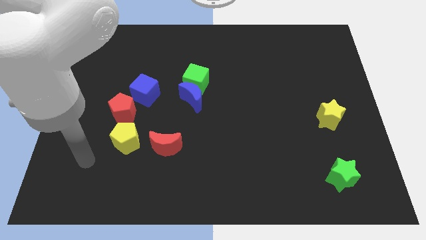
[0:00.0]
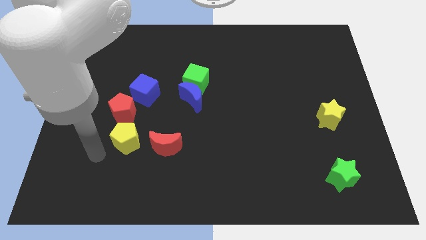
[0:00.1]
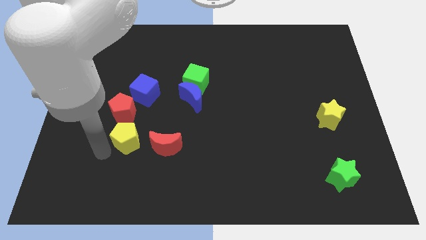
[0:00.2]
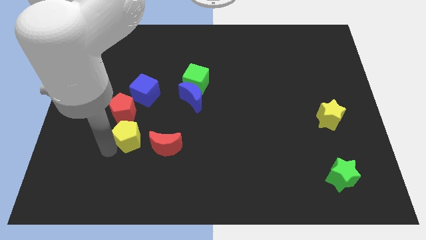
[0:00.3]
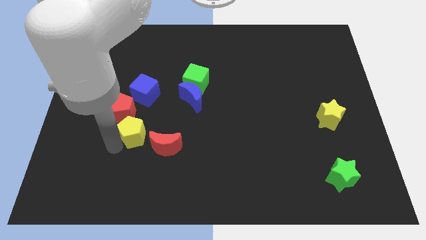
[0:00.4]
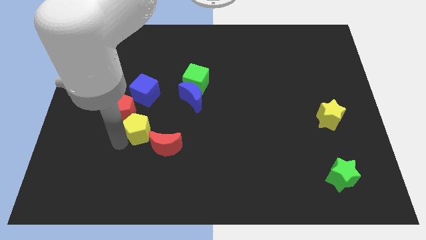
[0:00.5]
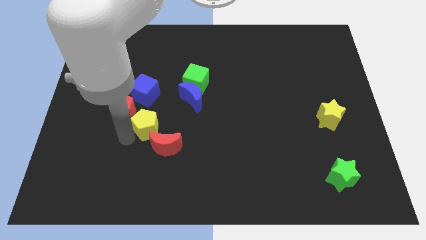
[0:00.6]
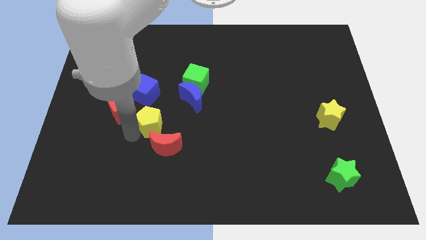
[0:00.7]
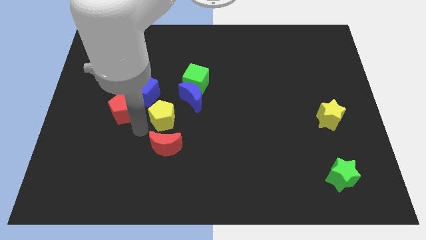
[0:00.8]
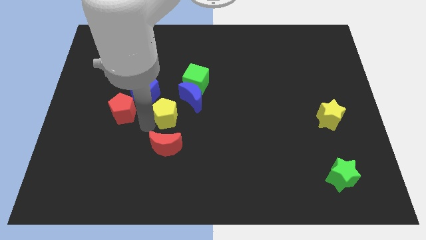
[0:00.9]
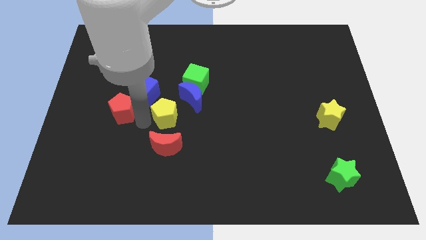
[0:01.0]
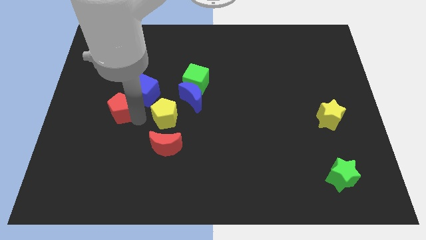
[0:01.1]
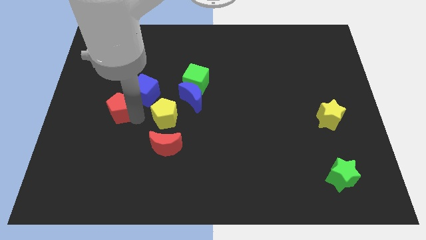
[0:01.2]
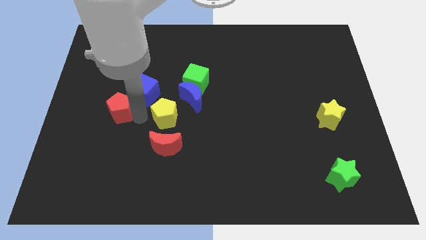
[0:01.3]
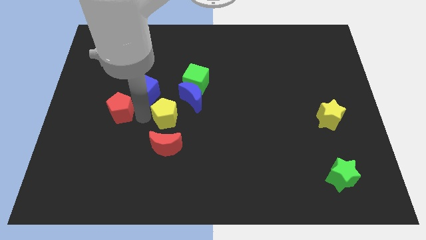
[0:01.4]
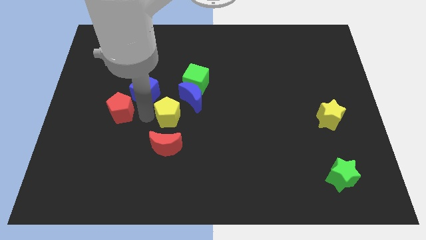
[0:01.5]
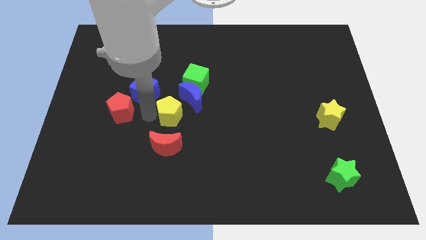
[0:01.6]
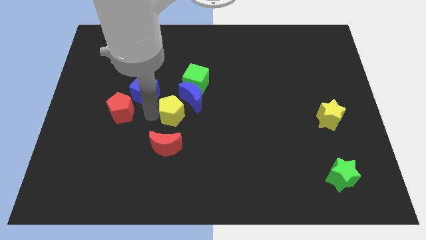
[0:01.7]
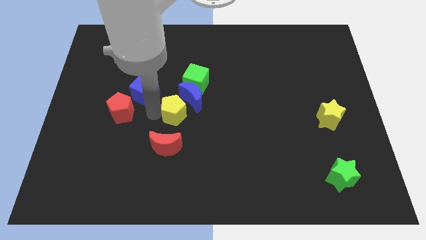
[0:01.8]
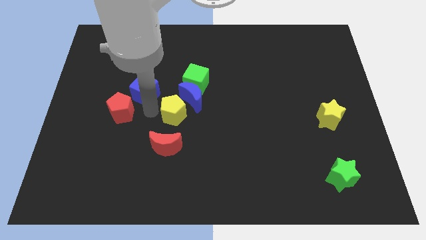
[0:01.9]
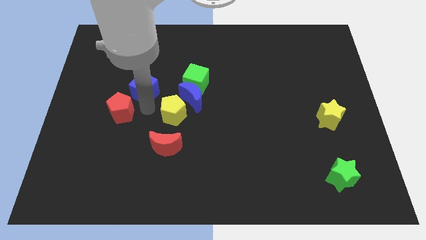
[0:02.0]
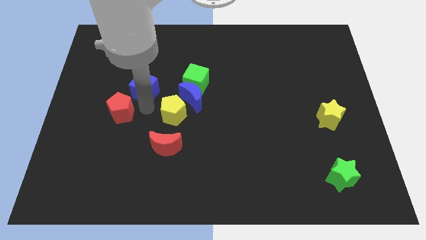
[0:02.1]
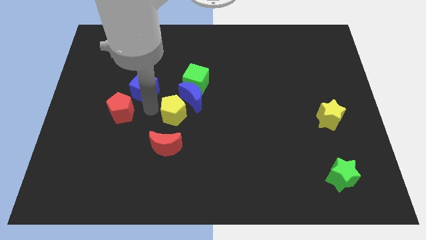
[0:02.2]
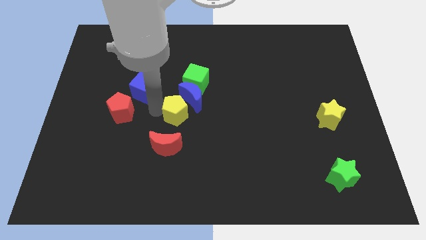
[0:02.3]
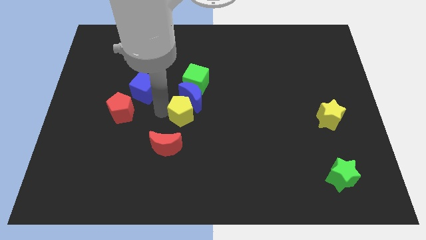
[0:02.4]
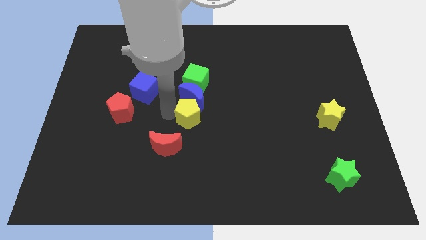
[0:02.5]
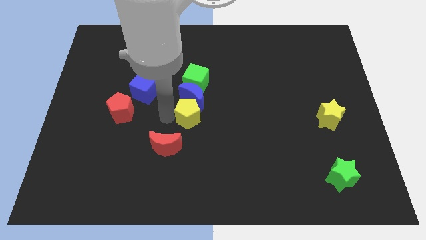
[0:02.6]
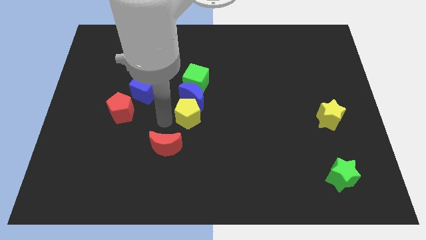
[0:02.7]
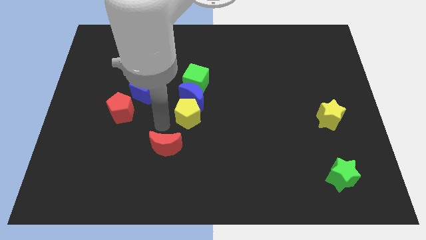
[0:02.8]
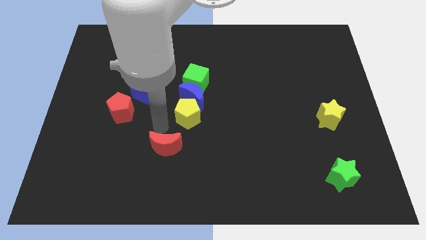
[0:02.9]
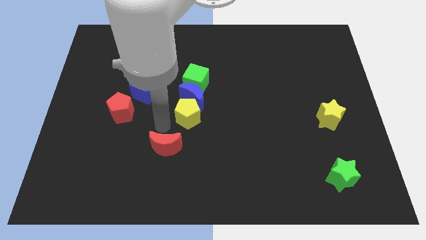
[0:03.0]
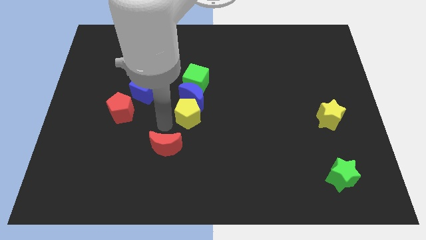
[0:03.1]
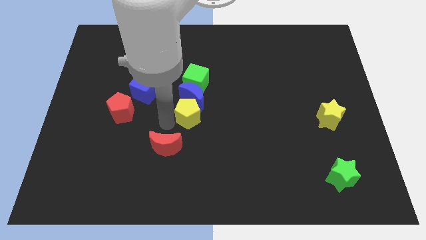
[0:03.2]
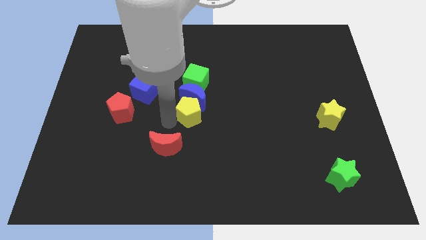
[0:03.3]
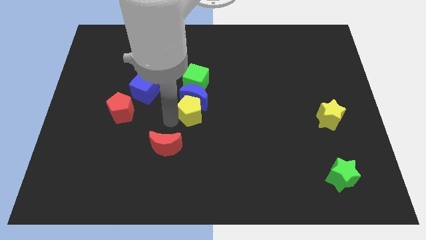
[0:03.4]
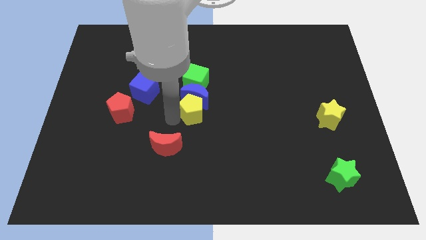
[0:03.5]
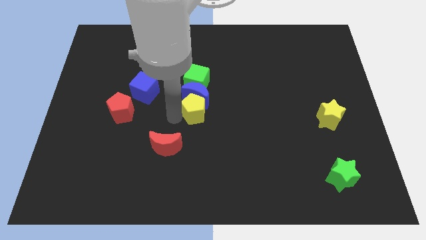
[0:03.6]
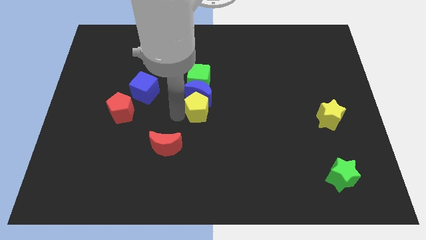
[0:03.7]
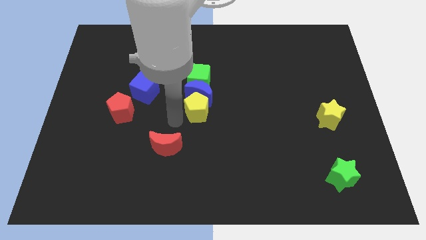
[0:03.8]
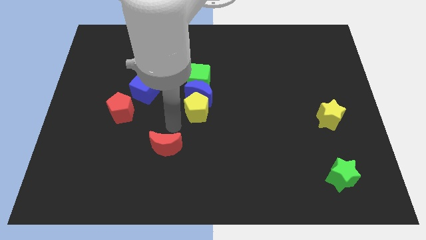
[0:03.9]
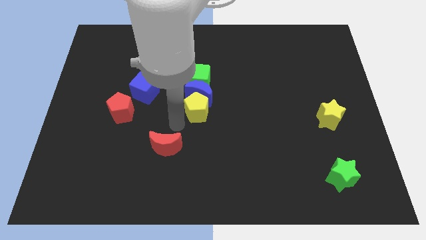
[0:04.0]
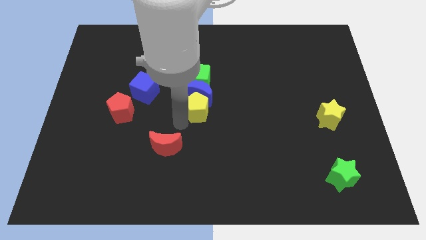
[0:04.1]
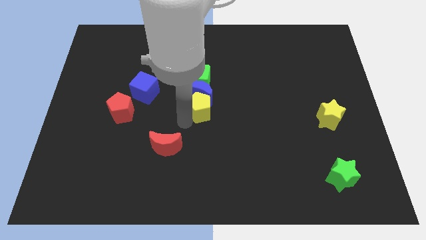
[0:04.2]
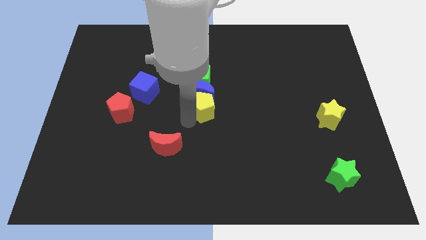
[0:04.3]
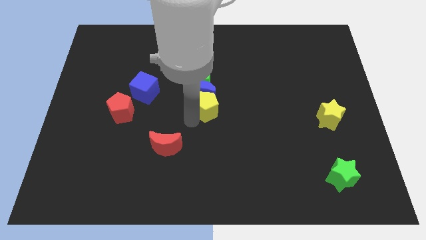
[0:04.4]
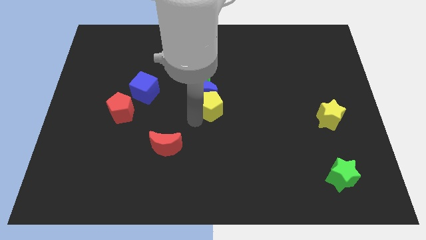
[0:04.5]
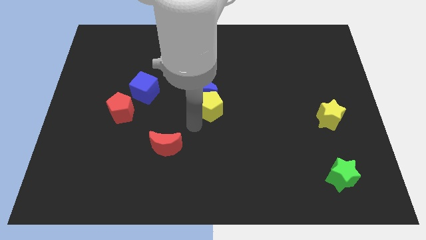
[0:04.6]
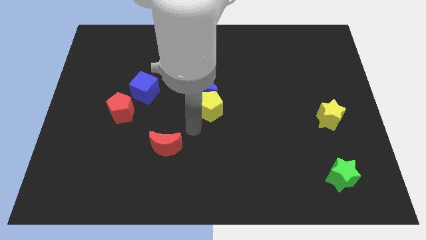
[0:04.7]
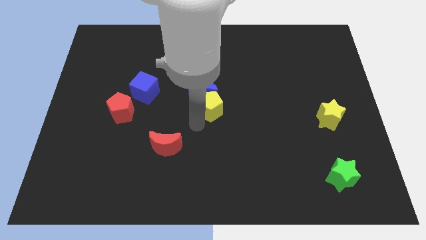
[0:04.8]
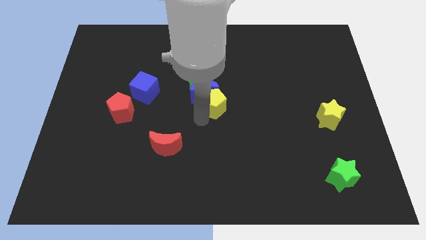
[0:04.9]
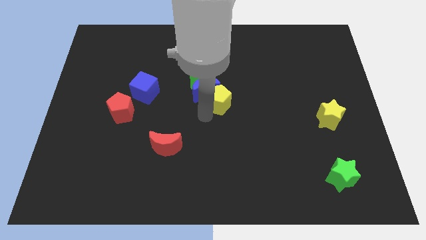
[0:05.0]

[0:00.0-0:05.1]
move the yellow pentagon up and to the right

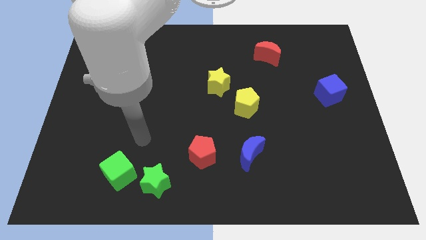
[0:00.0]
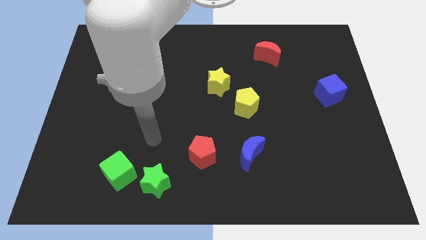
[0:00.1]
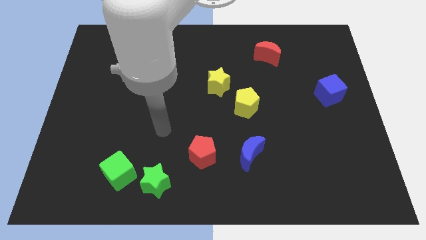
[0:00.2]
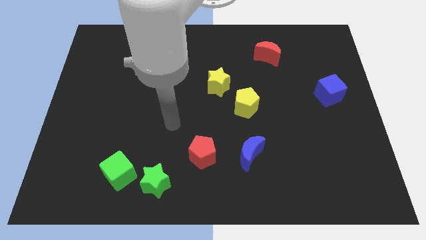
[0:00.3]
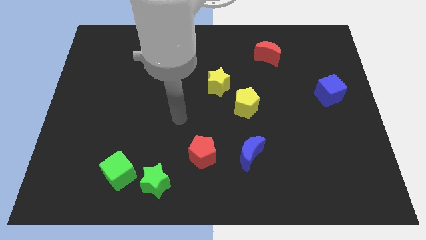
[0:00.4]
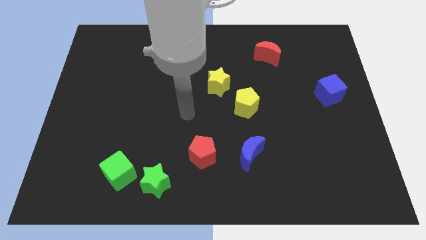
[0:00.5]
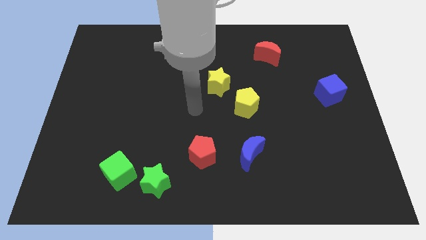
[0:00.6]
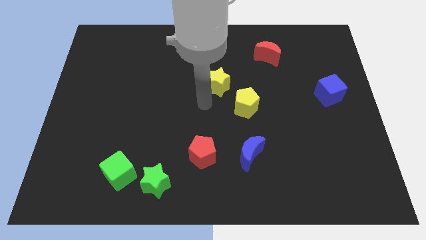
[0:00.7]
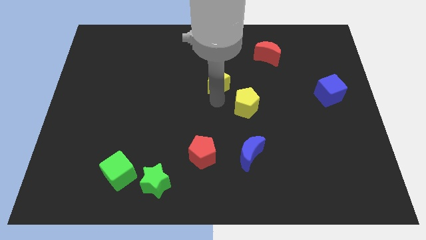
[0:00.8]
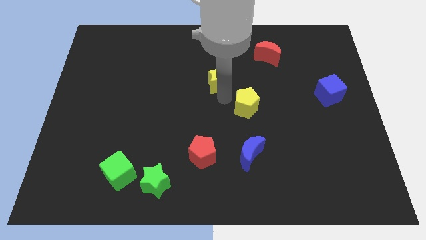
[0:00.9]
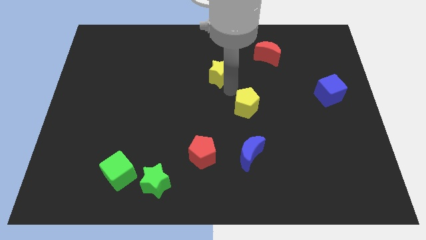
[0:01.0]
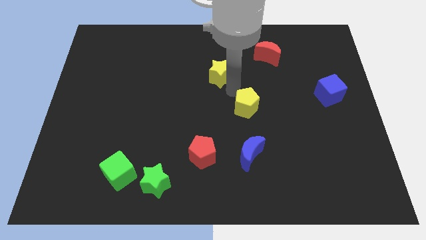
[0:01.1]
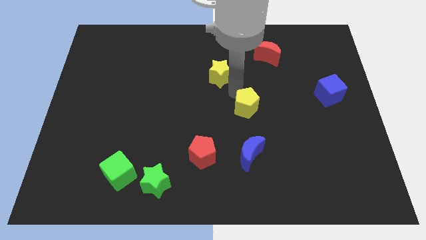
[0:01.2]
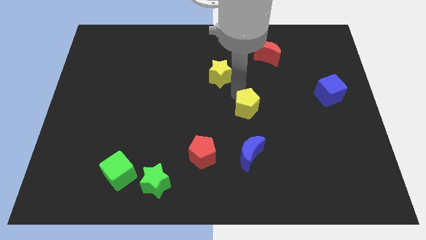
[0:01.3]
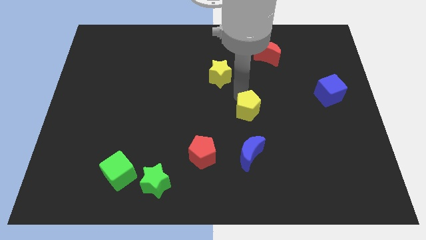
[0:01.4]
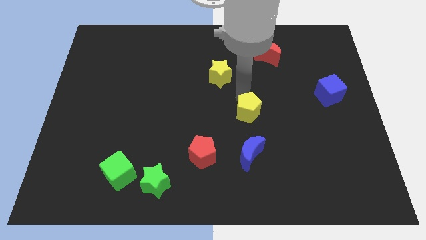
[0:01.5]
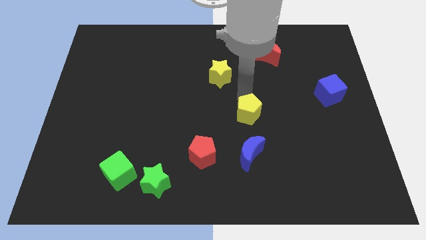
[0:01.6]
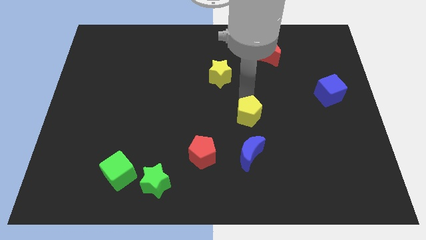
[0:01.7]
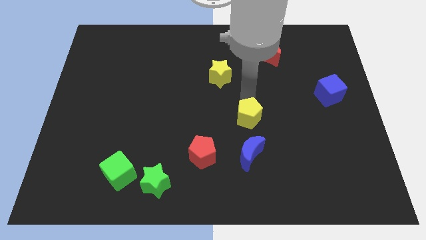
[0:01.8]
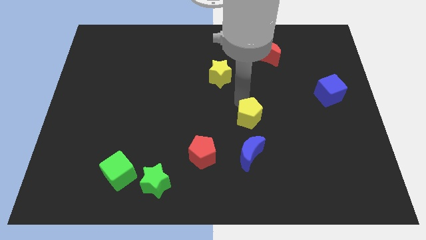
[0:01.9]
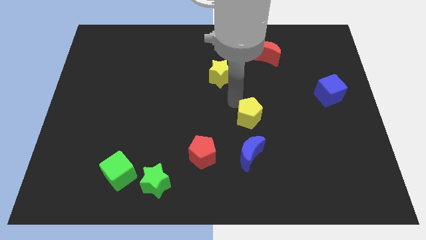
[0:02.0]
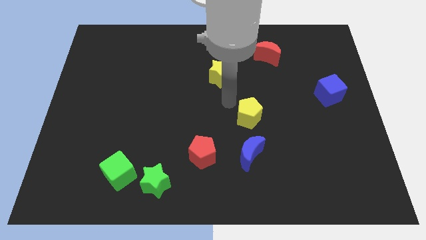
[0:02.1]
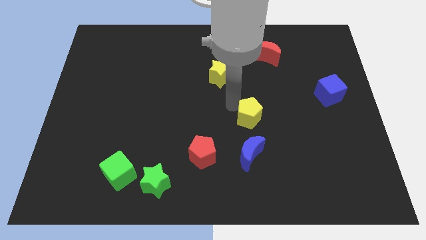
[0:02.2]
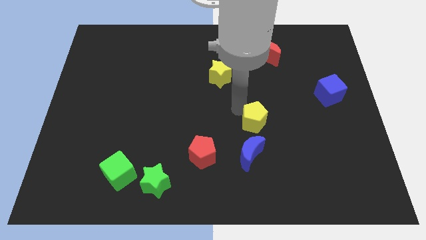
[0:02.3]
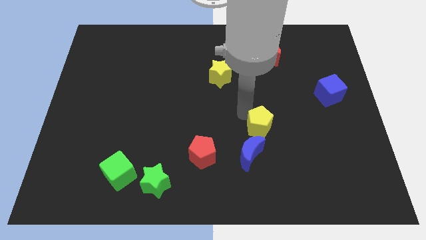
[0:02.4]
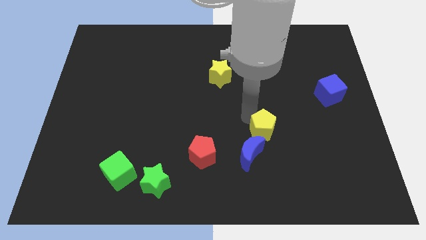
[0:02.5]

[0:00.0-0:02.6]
slightly push the yellow pentagon diagonally downwards and to the right

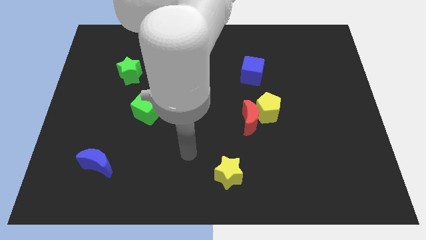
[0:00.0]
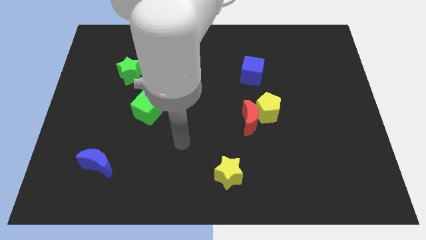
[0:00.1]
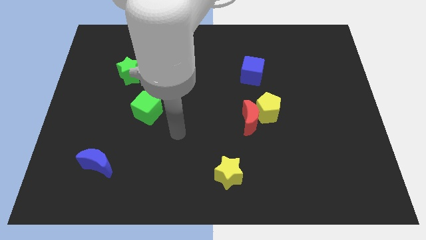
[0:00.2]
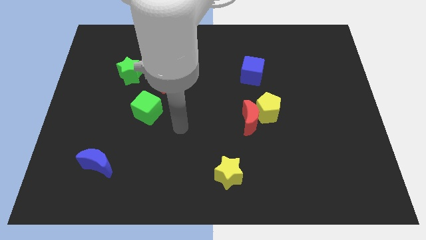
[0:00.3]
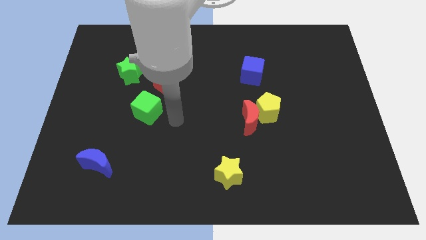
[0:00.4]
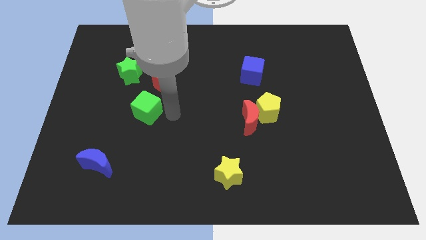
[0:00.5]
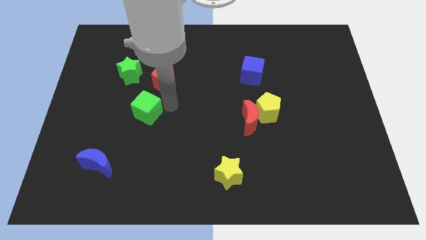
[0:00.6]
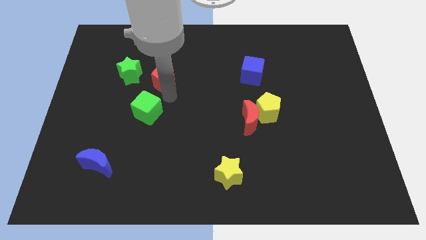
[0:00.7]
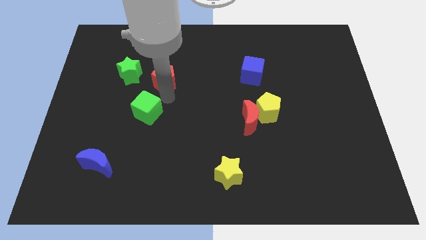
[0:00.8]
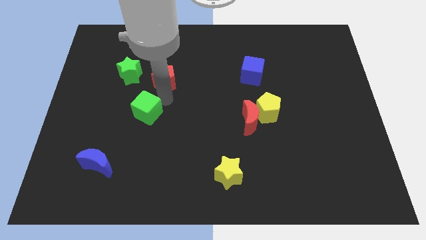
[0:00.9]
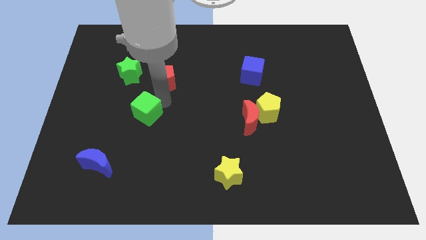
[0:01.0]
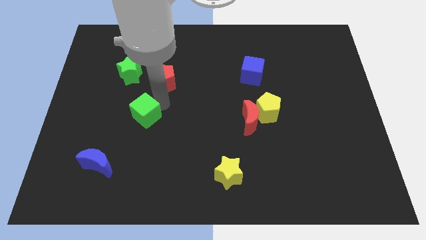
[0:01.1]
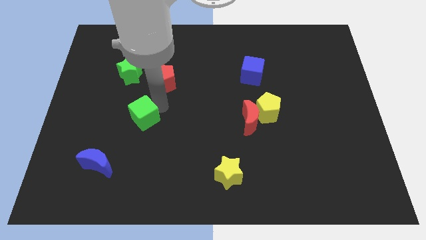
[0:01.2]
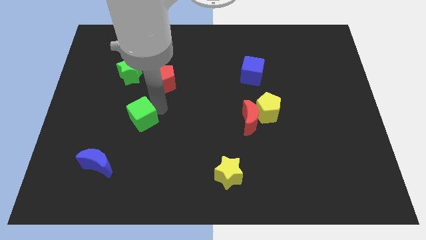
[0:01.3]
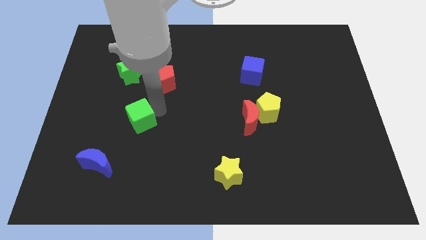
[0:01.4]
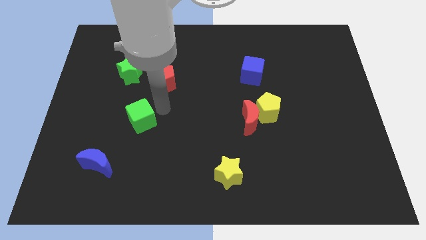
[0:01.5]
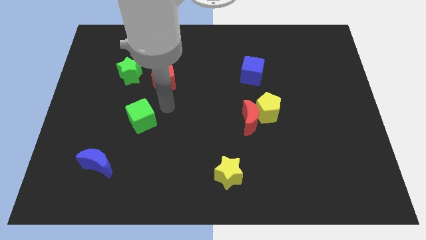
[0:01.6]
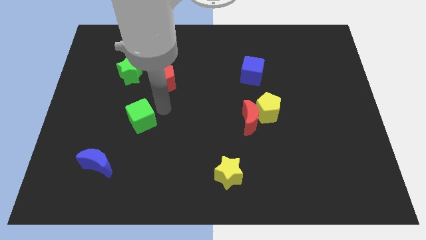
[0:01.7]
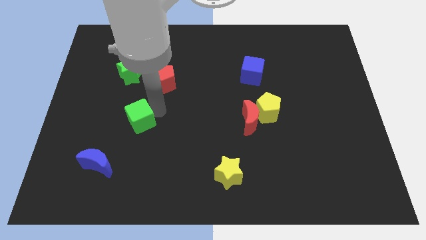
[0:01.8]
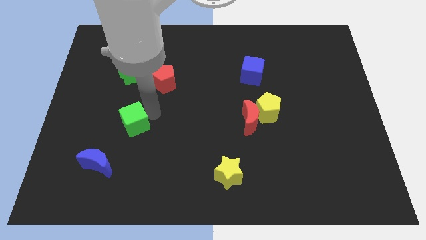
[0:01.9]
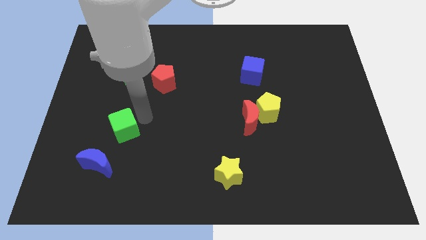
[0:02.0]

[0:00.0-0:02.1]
move the green cube a little down and left
